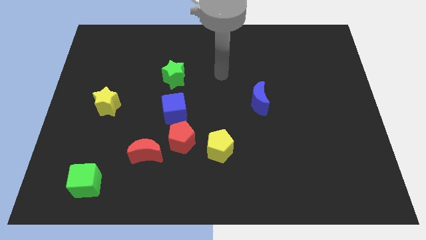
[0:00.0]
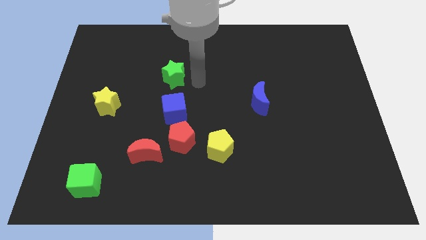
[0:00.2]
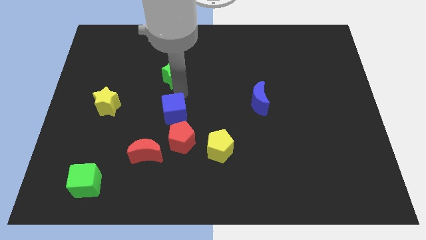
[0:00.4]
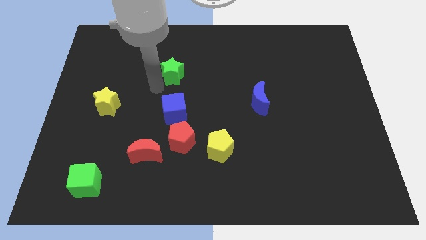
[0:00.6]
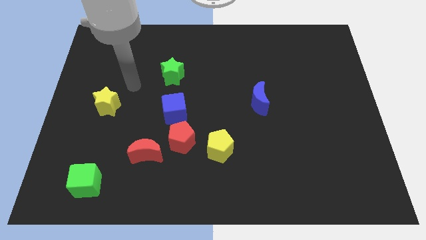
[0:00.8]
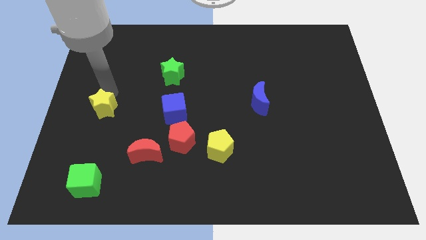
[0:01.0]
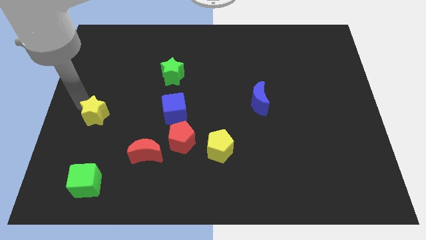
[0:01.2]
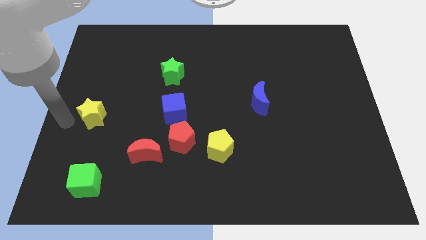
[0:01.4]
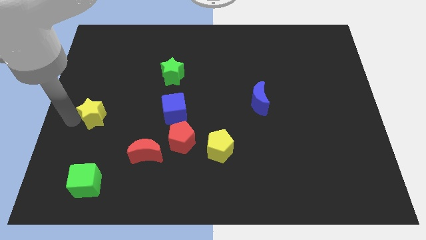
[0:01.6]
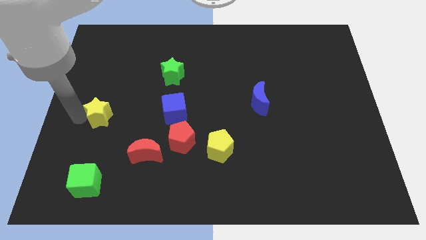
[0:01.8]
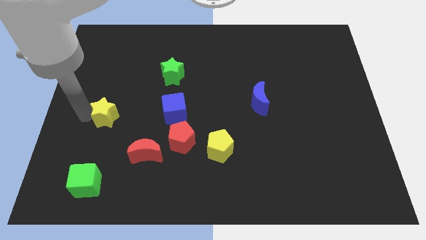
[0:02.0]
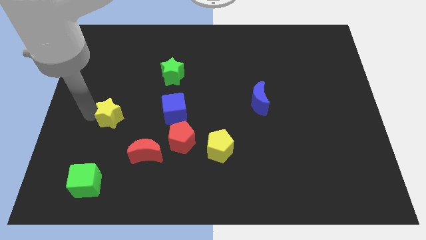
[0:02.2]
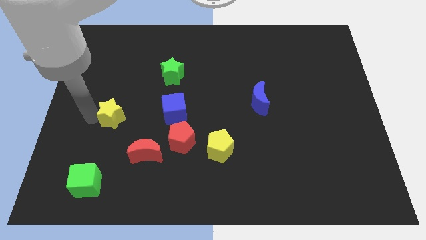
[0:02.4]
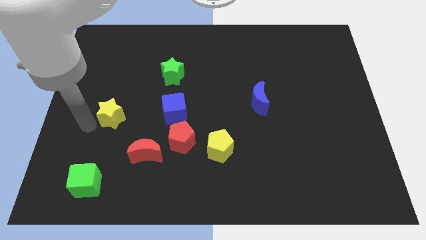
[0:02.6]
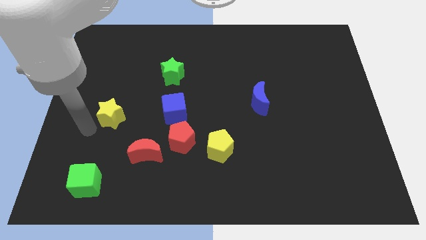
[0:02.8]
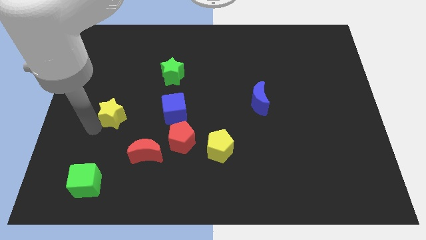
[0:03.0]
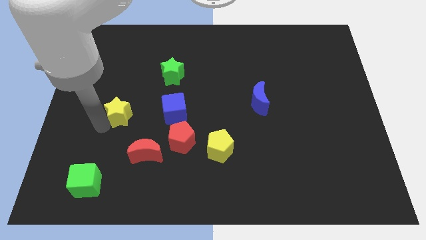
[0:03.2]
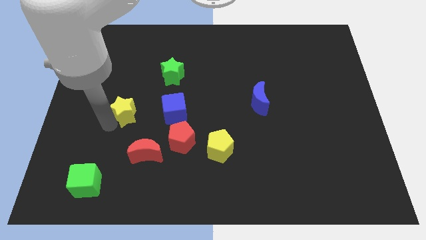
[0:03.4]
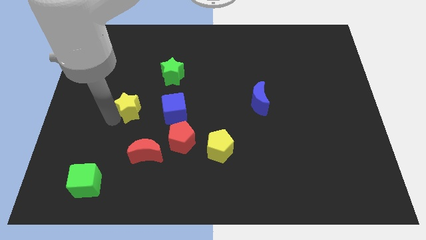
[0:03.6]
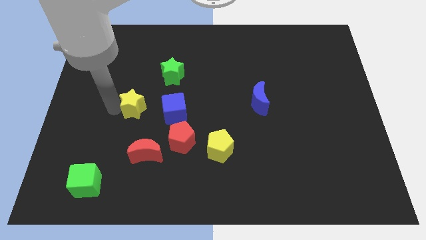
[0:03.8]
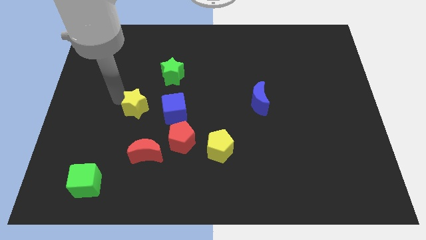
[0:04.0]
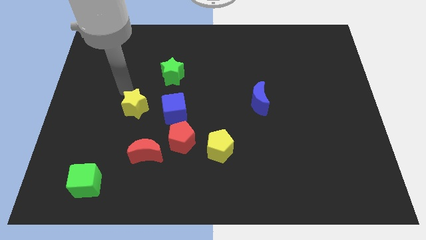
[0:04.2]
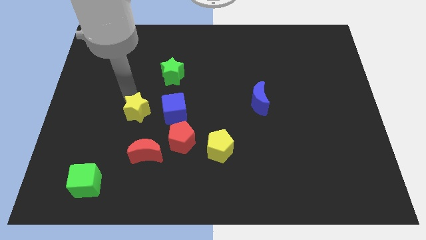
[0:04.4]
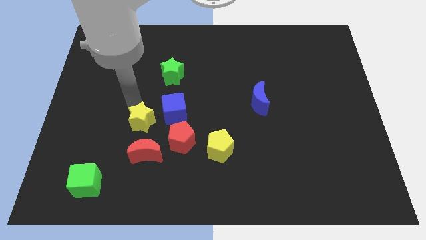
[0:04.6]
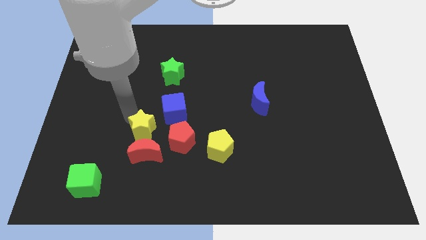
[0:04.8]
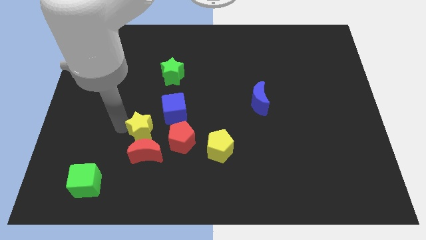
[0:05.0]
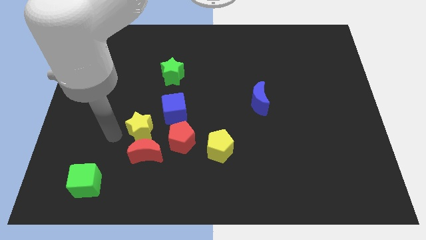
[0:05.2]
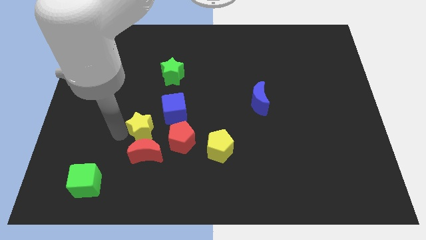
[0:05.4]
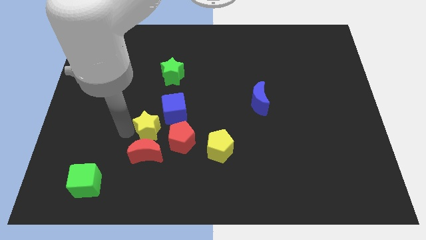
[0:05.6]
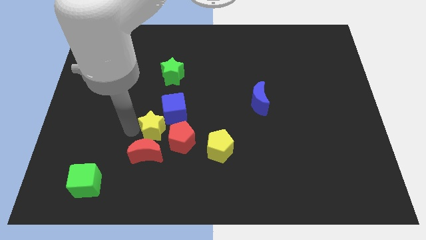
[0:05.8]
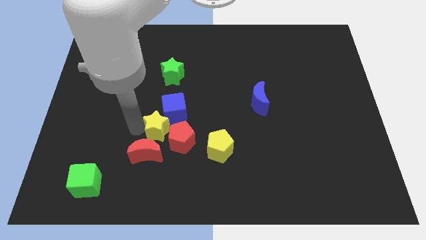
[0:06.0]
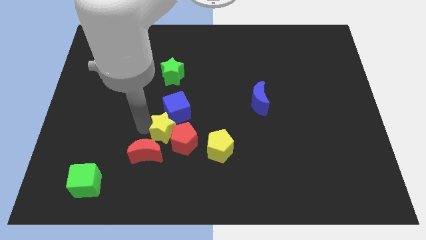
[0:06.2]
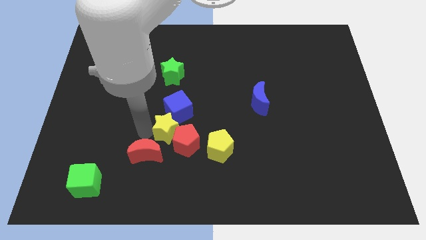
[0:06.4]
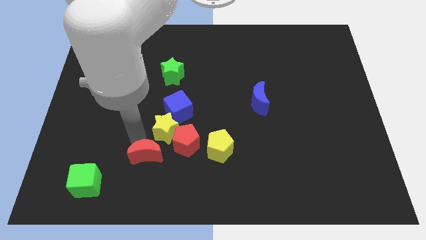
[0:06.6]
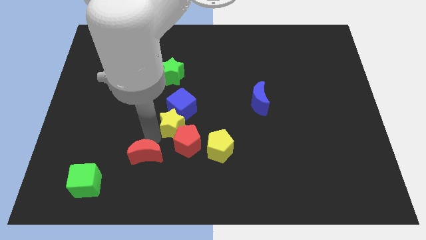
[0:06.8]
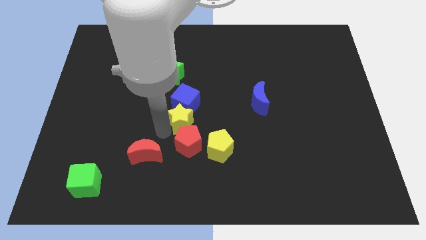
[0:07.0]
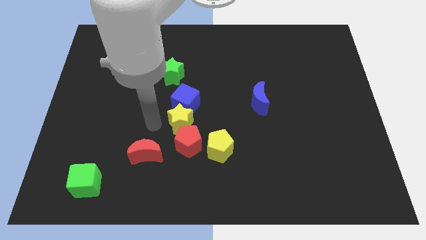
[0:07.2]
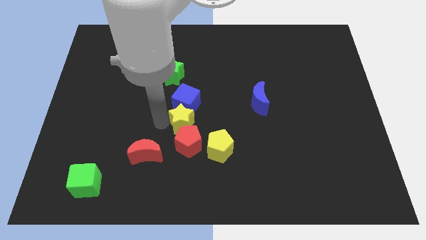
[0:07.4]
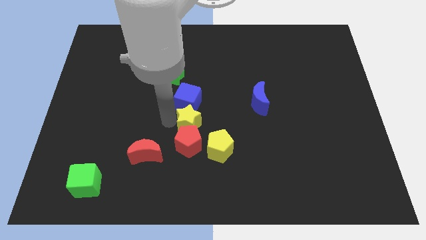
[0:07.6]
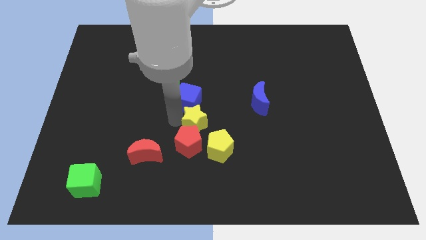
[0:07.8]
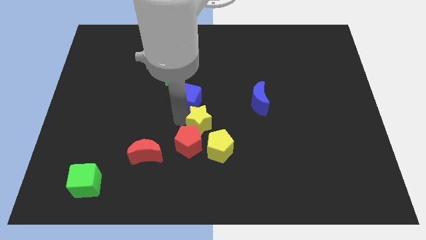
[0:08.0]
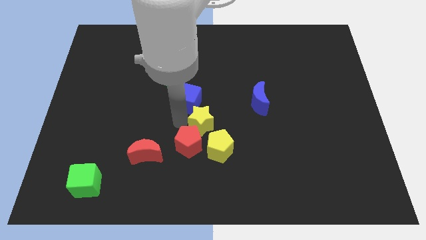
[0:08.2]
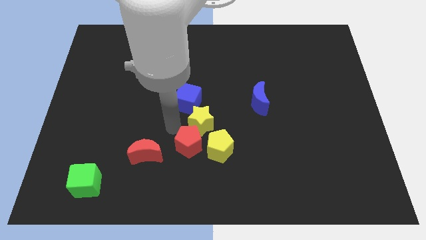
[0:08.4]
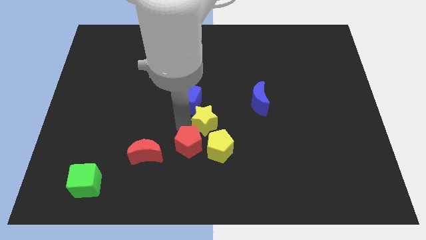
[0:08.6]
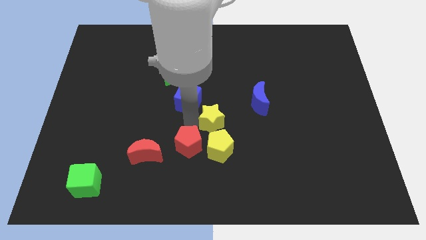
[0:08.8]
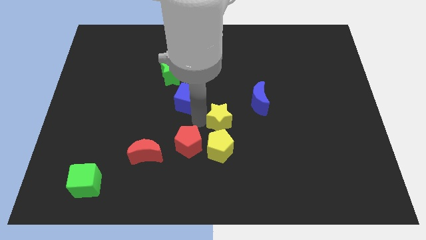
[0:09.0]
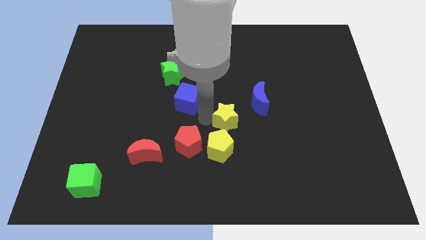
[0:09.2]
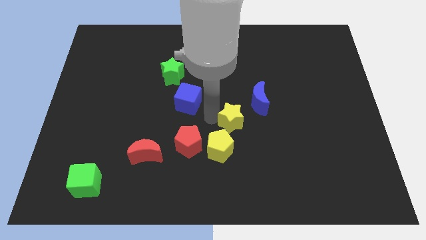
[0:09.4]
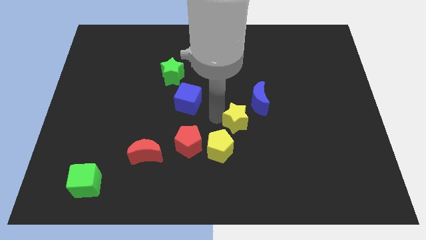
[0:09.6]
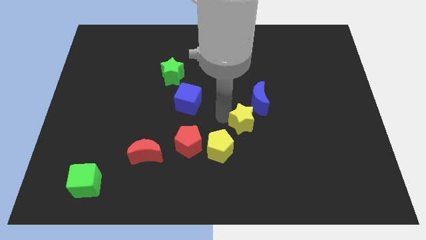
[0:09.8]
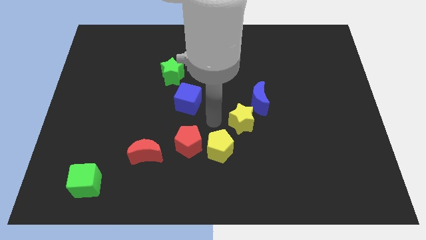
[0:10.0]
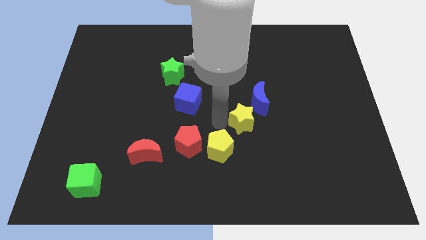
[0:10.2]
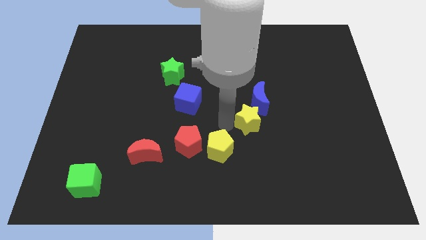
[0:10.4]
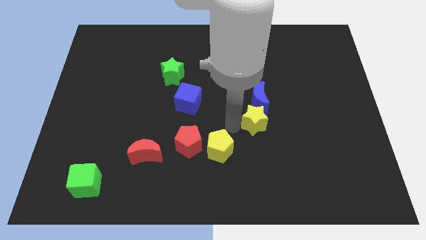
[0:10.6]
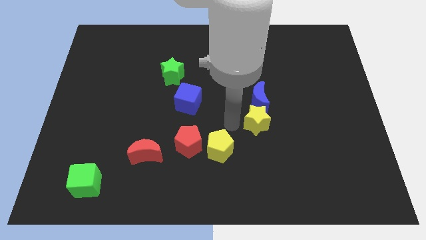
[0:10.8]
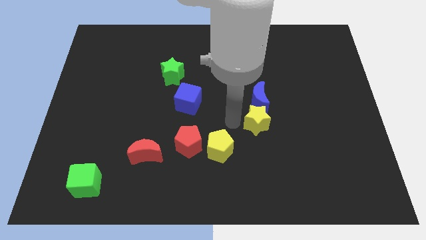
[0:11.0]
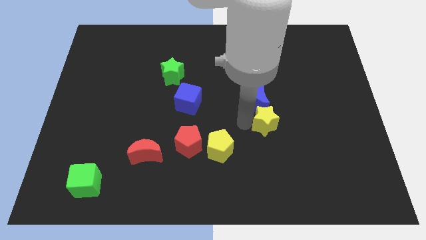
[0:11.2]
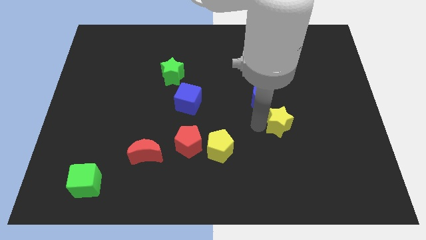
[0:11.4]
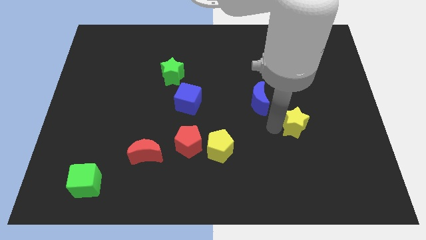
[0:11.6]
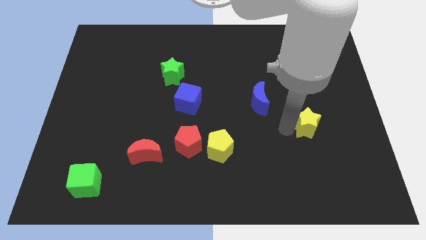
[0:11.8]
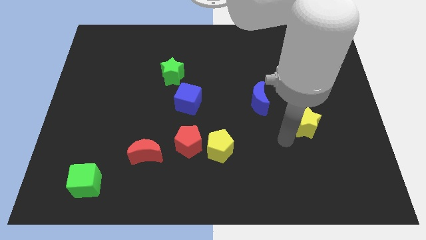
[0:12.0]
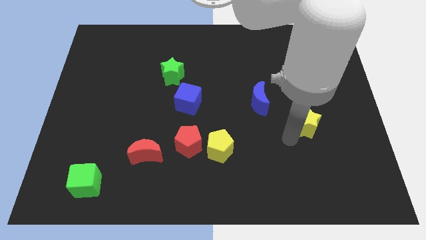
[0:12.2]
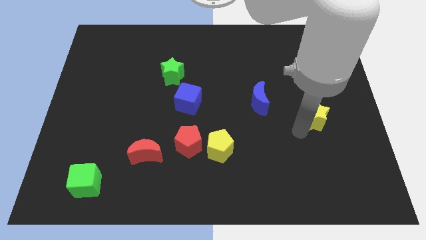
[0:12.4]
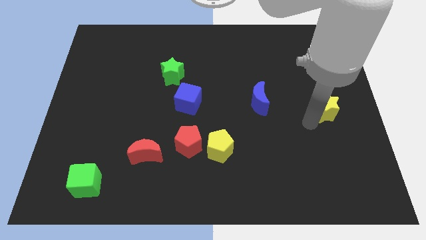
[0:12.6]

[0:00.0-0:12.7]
move the yellow star to the center right
